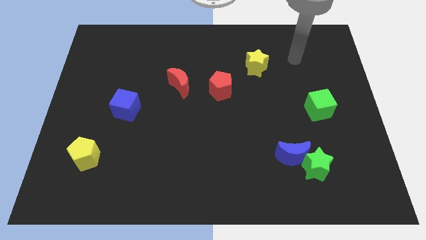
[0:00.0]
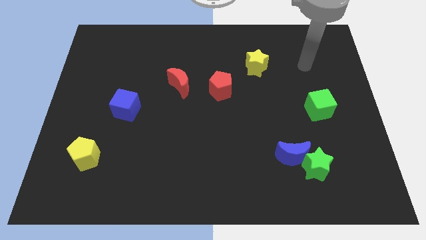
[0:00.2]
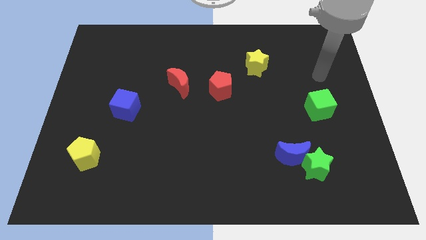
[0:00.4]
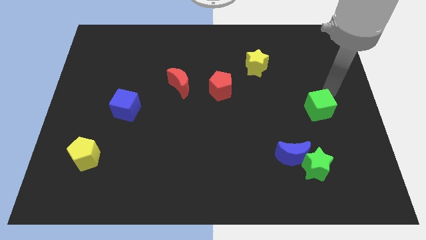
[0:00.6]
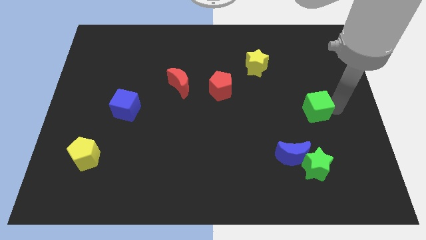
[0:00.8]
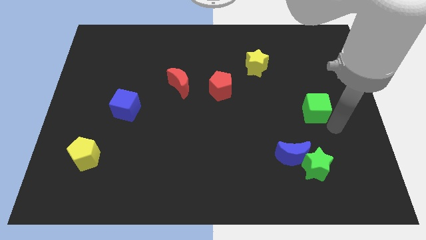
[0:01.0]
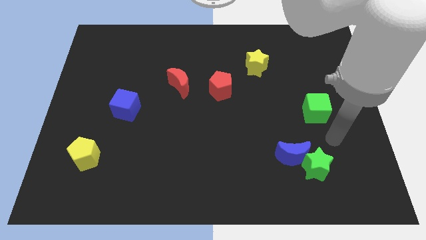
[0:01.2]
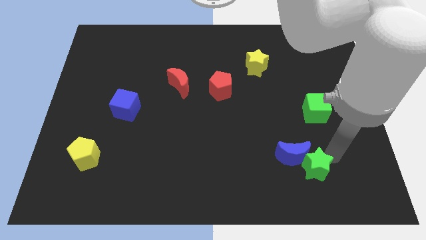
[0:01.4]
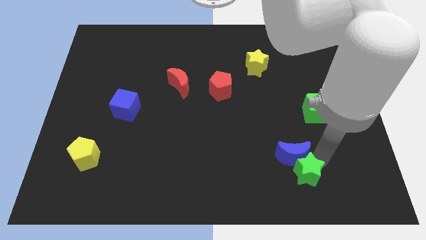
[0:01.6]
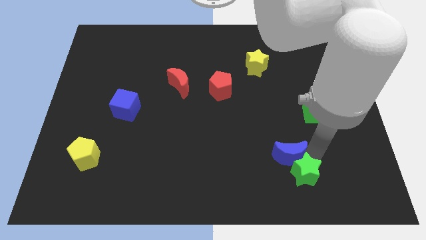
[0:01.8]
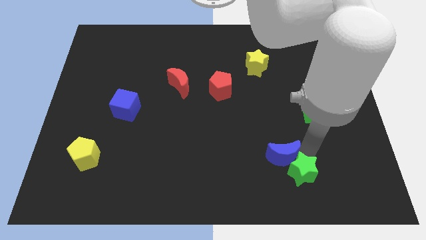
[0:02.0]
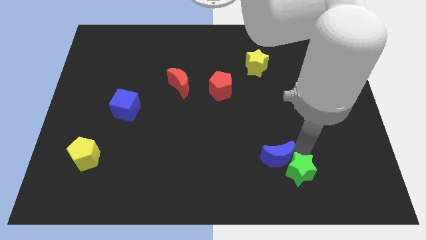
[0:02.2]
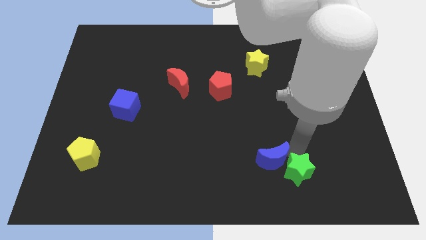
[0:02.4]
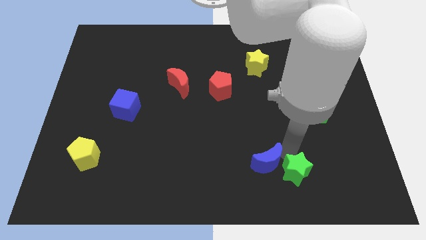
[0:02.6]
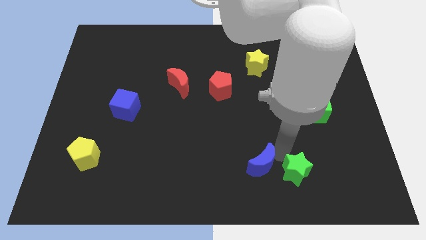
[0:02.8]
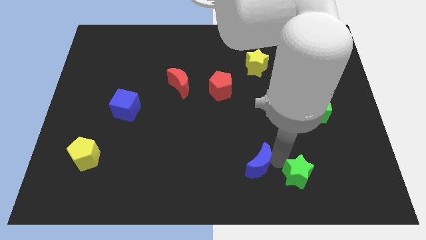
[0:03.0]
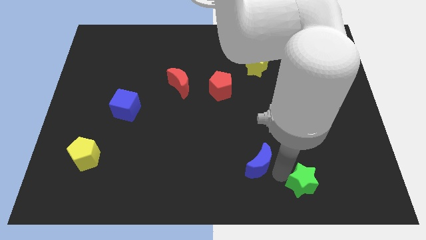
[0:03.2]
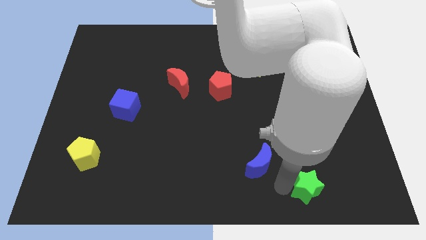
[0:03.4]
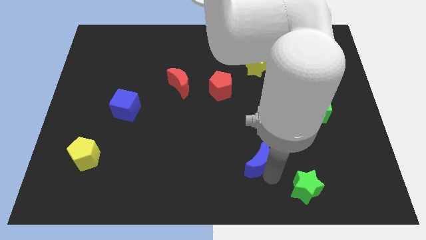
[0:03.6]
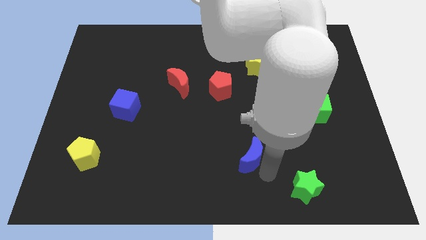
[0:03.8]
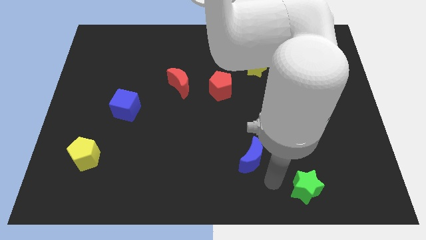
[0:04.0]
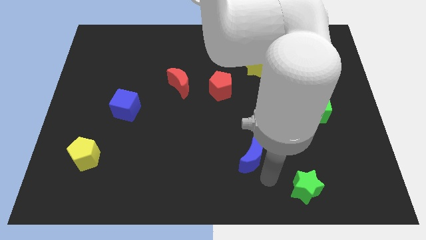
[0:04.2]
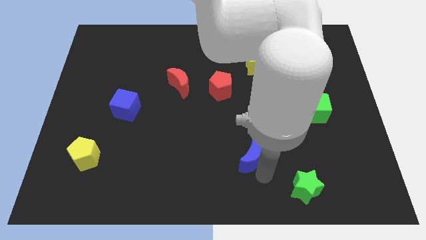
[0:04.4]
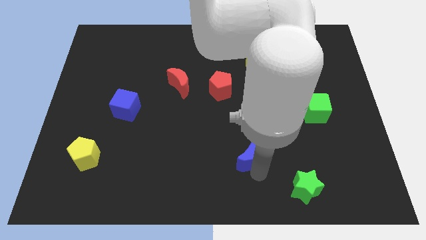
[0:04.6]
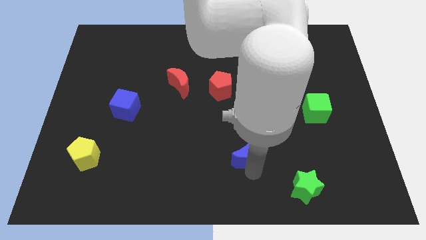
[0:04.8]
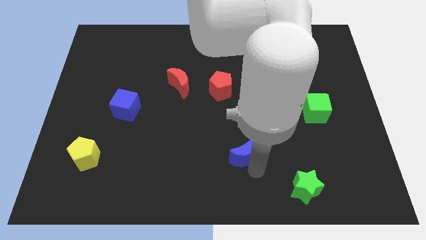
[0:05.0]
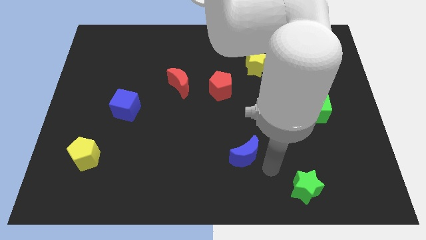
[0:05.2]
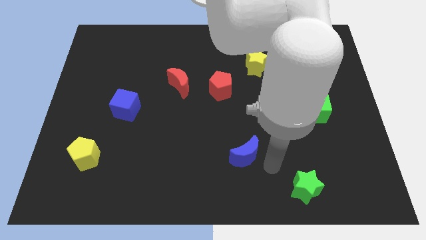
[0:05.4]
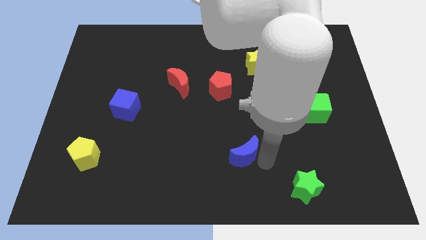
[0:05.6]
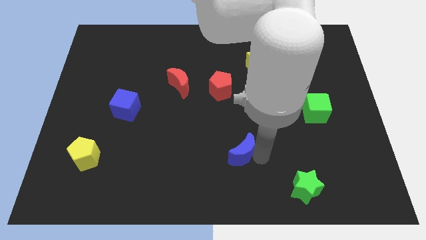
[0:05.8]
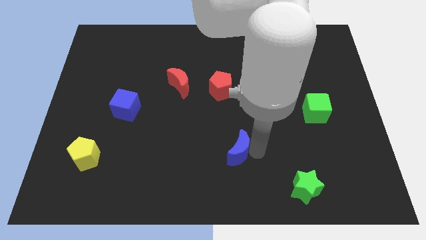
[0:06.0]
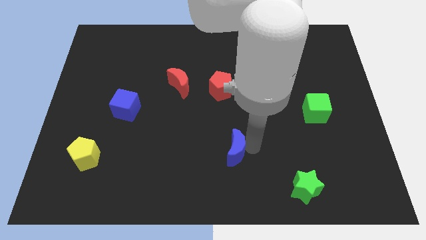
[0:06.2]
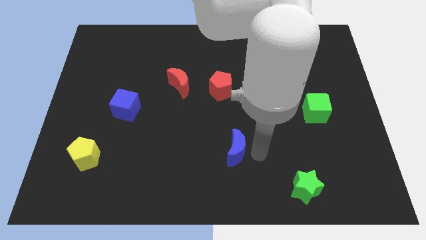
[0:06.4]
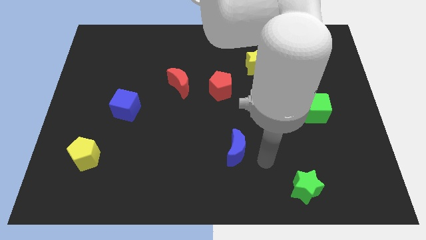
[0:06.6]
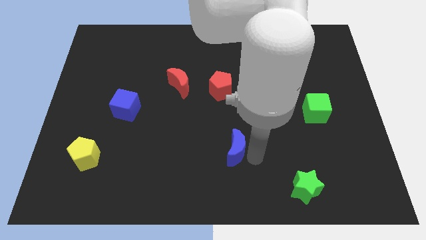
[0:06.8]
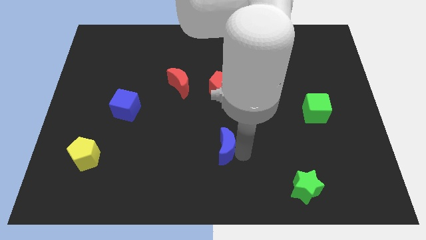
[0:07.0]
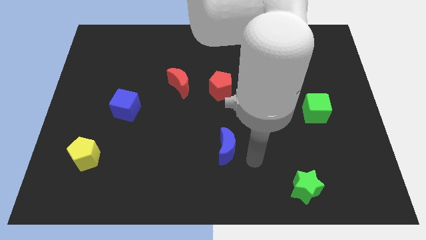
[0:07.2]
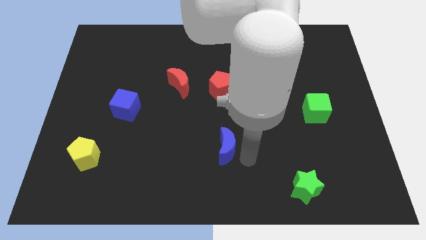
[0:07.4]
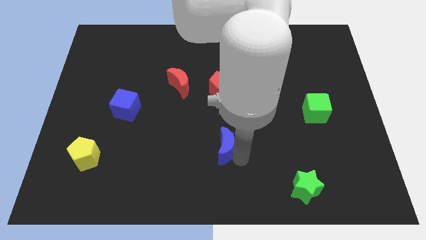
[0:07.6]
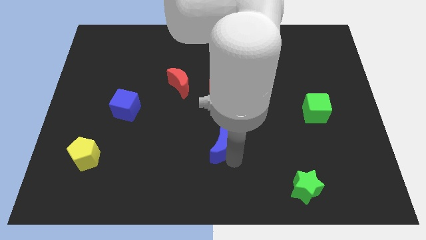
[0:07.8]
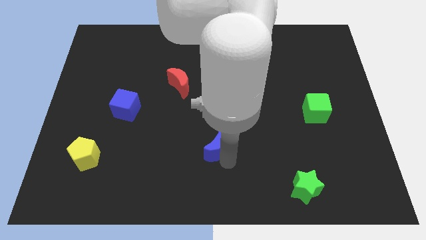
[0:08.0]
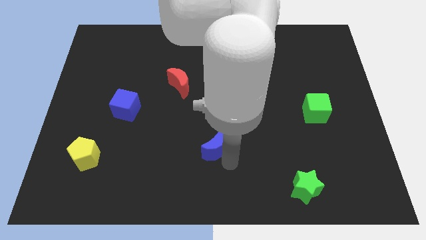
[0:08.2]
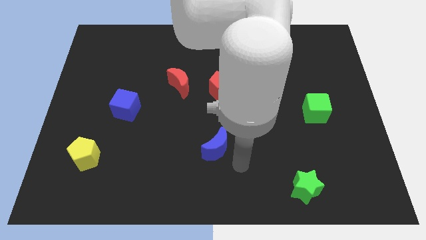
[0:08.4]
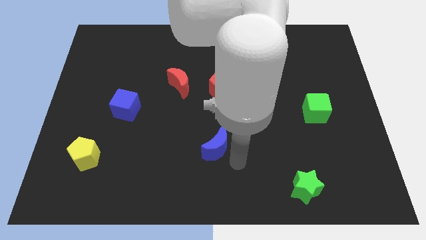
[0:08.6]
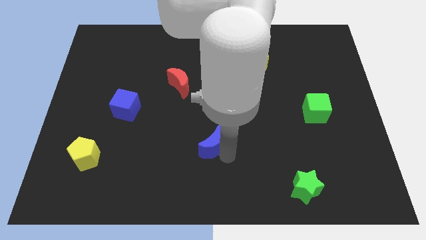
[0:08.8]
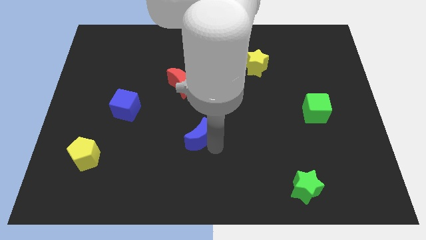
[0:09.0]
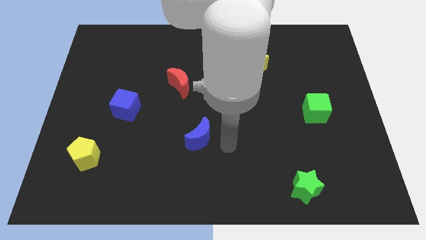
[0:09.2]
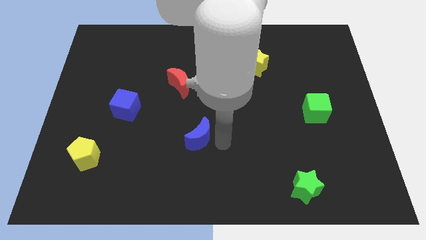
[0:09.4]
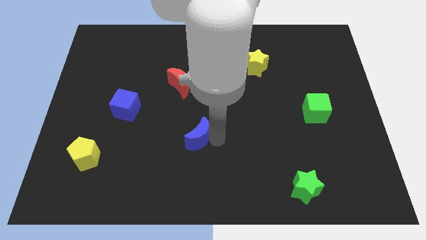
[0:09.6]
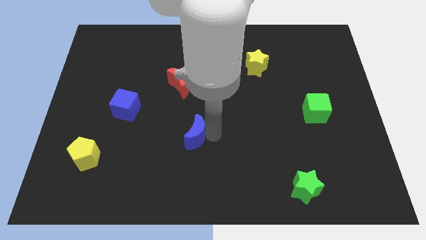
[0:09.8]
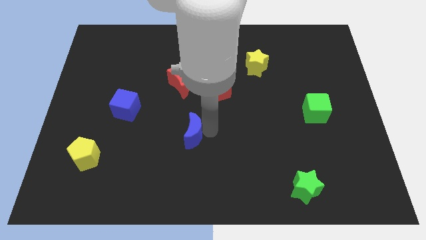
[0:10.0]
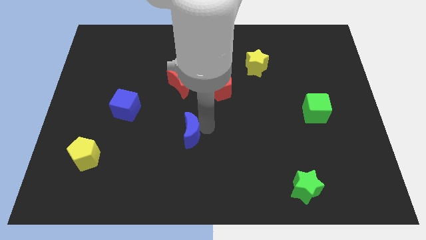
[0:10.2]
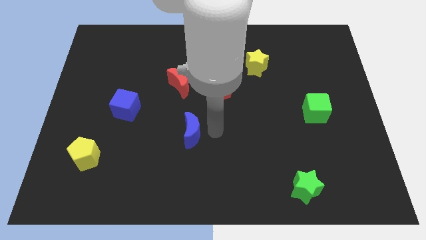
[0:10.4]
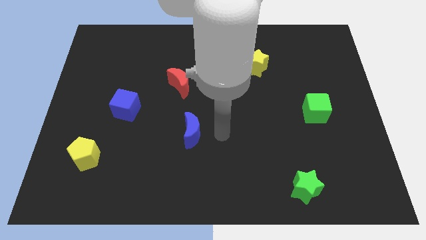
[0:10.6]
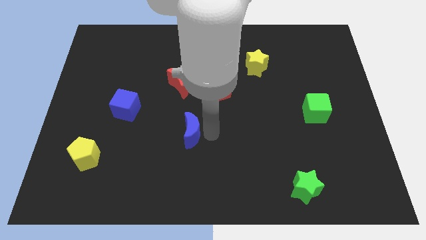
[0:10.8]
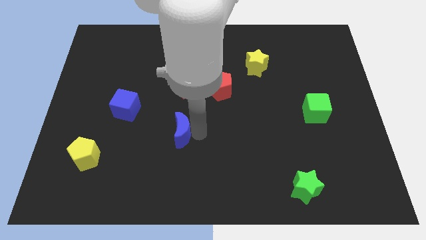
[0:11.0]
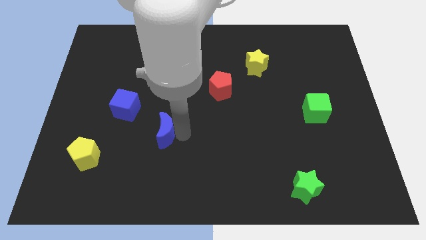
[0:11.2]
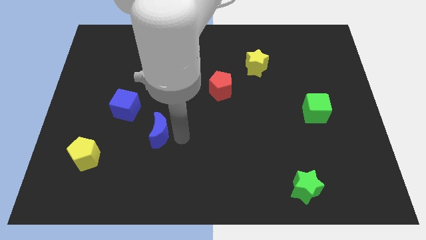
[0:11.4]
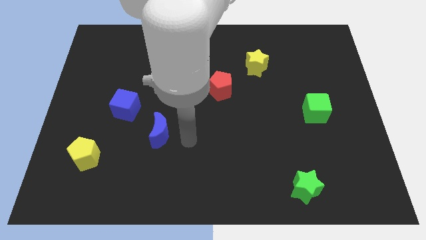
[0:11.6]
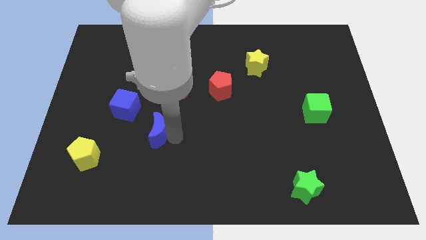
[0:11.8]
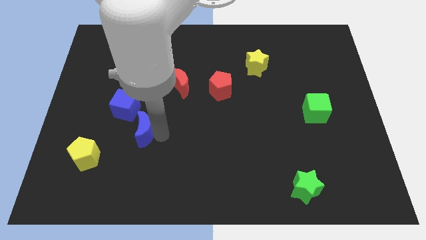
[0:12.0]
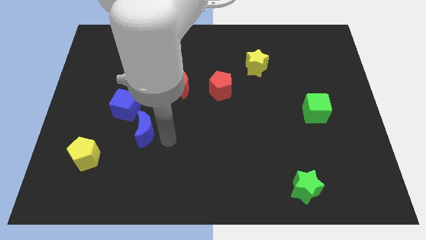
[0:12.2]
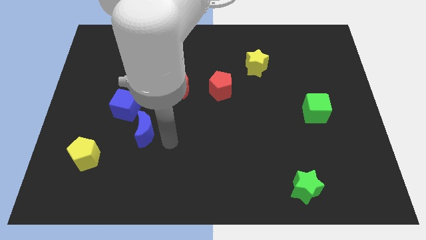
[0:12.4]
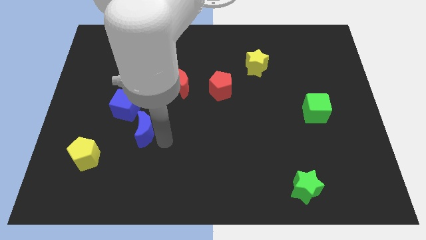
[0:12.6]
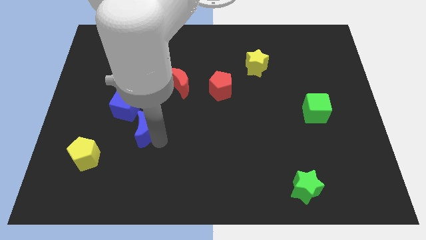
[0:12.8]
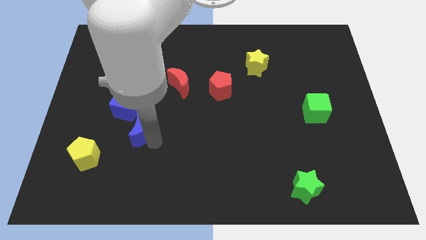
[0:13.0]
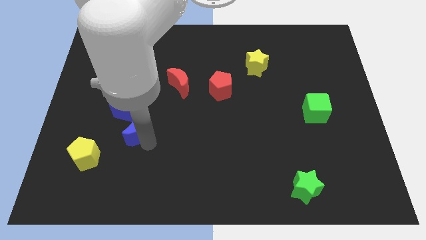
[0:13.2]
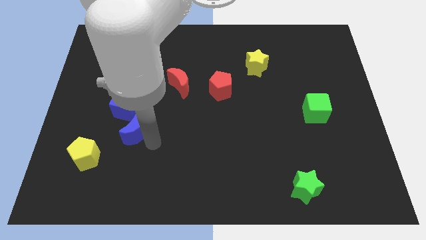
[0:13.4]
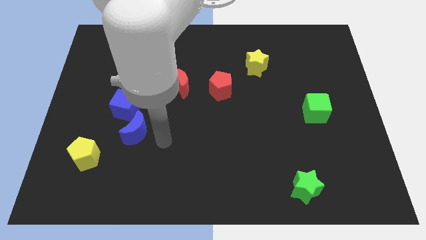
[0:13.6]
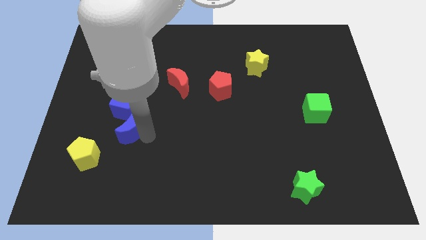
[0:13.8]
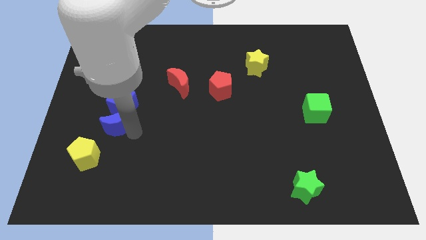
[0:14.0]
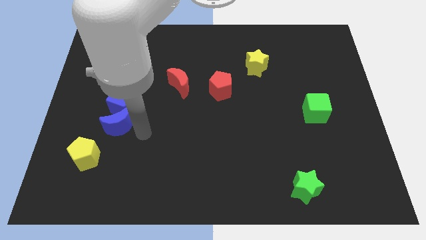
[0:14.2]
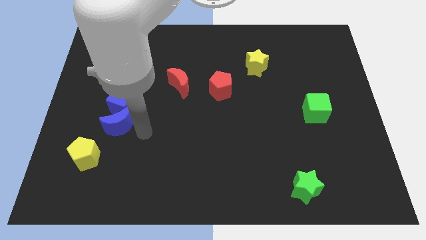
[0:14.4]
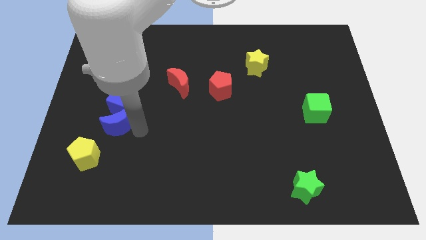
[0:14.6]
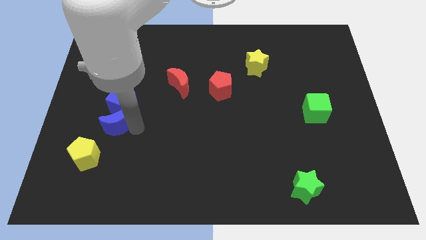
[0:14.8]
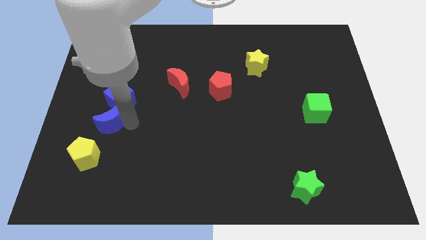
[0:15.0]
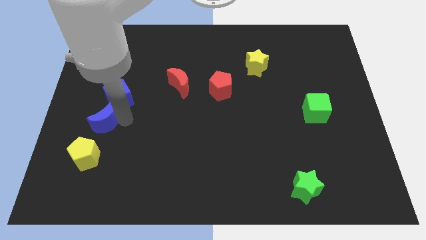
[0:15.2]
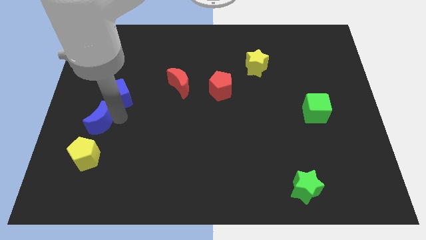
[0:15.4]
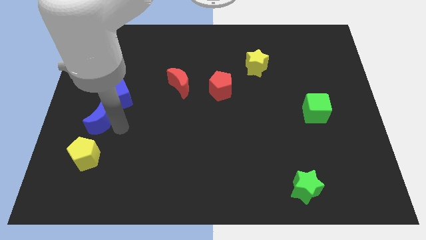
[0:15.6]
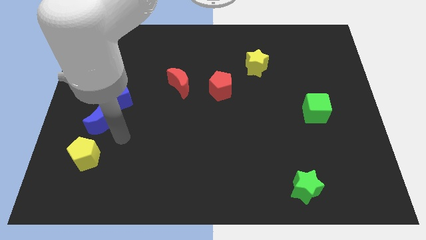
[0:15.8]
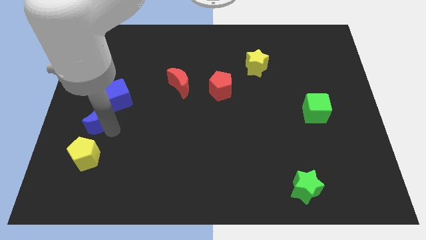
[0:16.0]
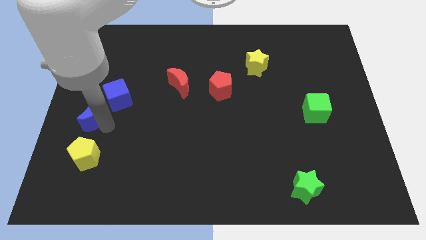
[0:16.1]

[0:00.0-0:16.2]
slide the blue moon to the left side of the board
